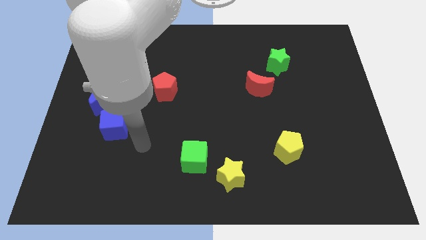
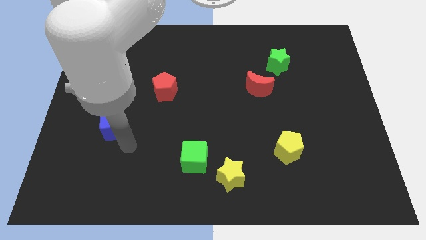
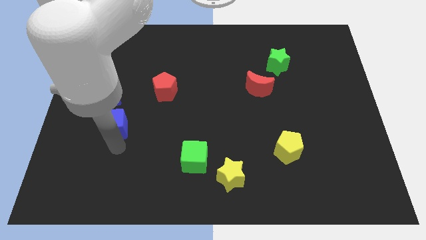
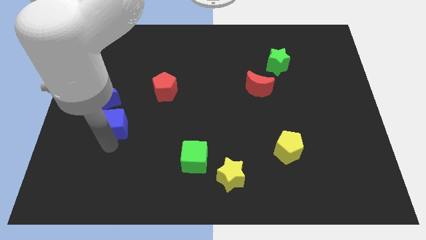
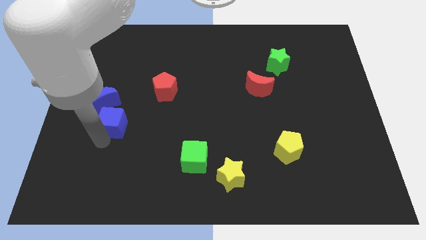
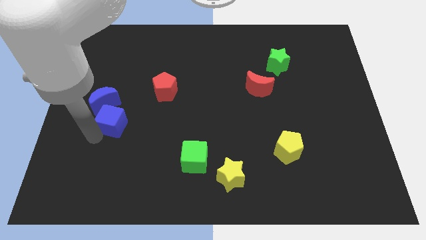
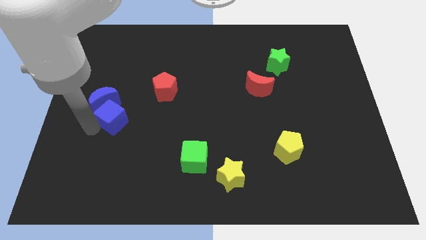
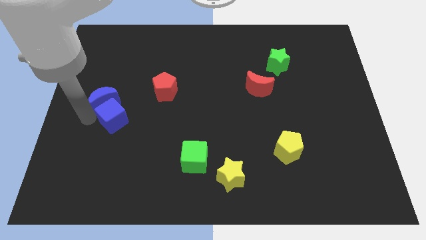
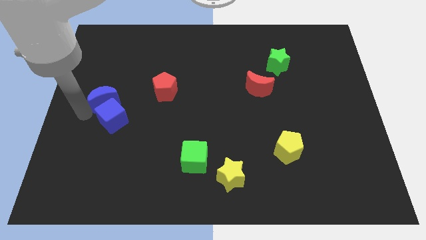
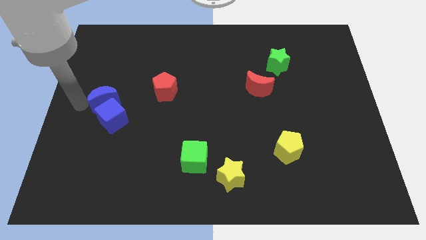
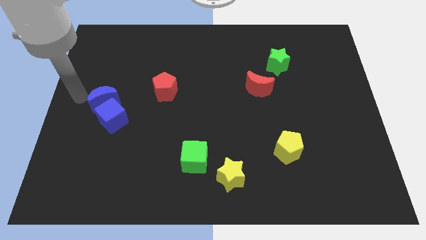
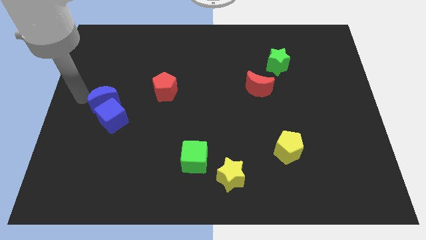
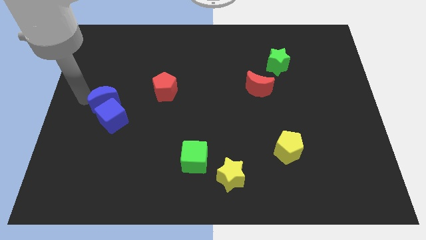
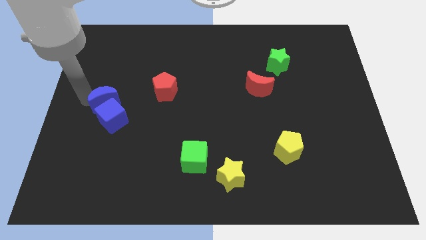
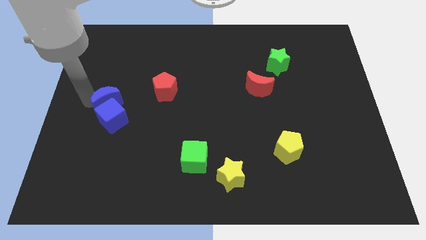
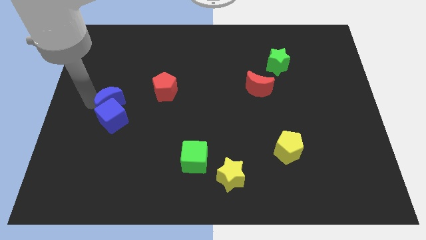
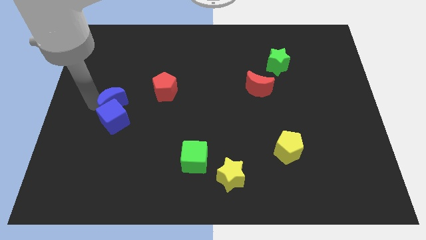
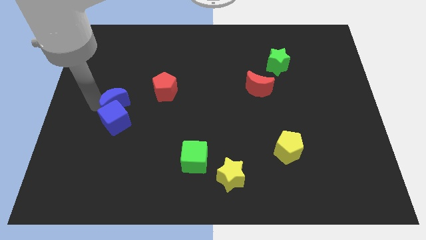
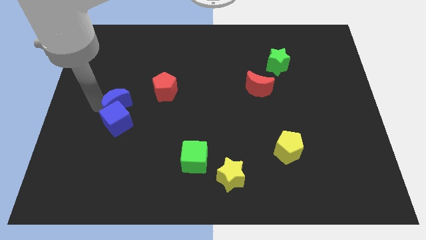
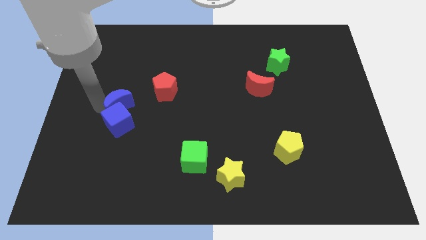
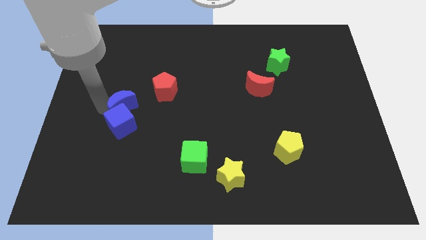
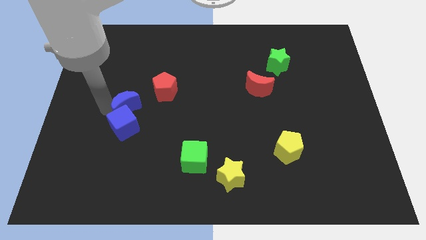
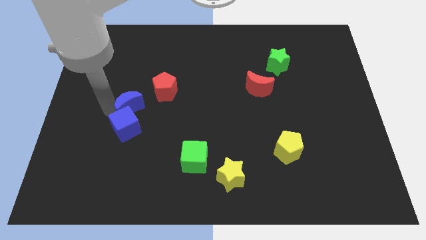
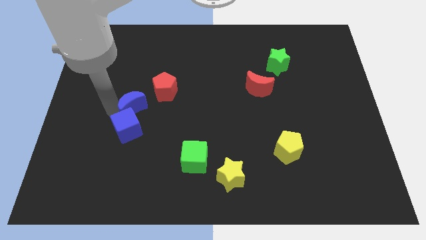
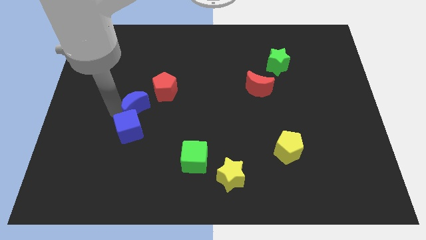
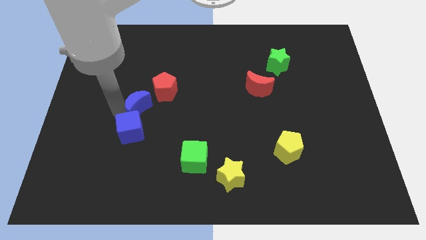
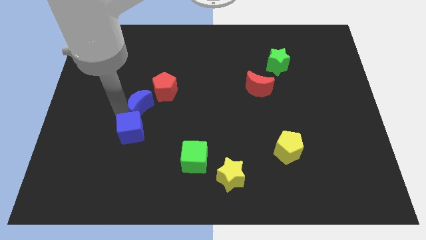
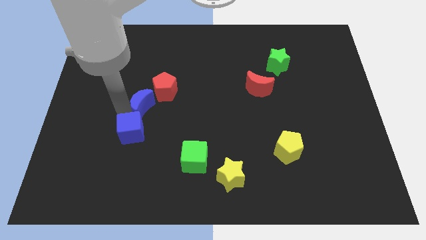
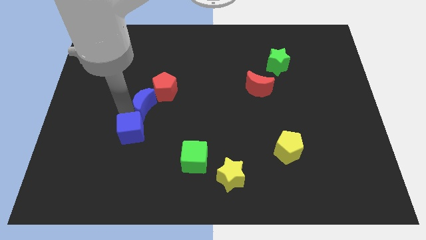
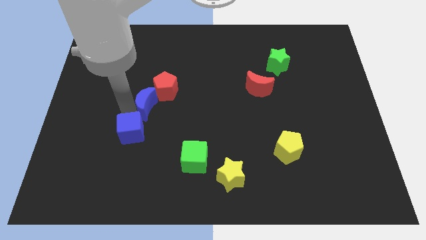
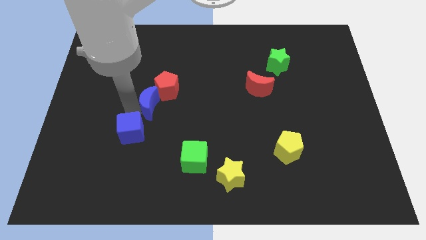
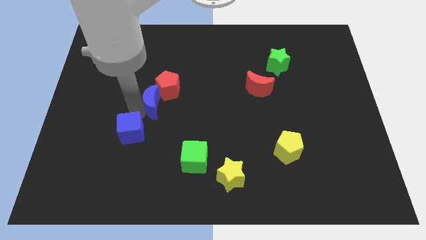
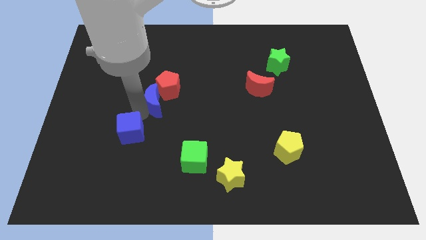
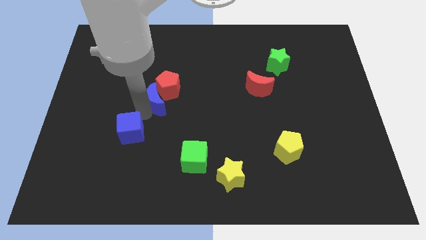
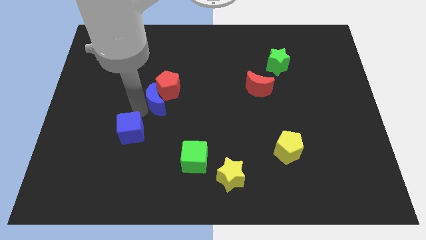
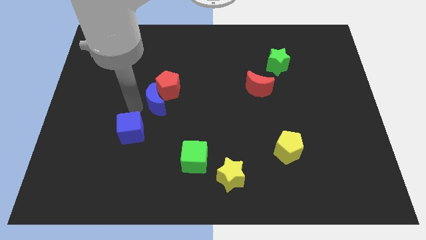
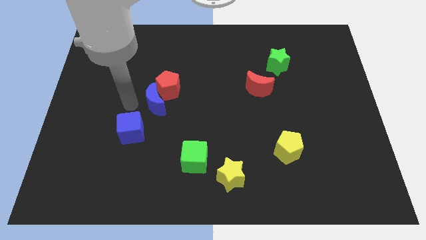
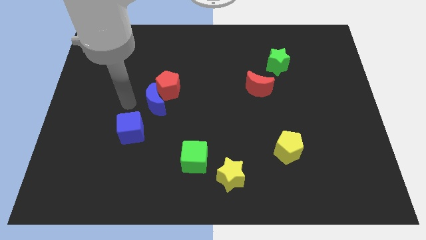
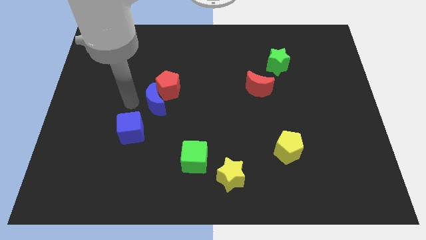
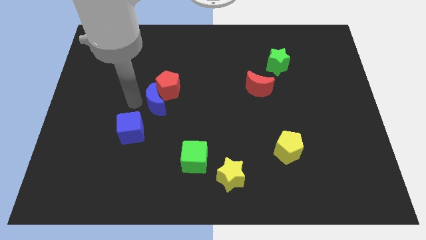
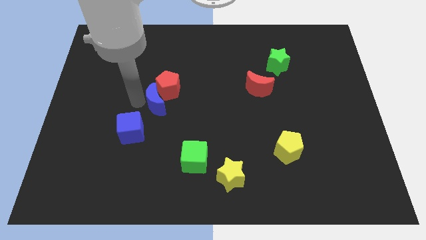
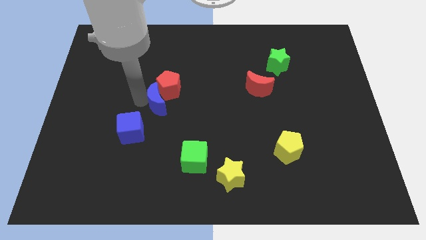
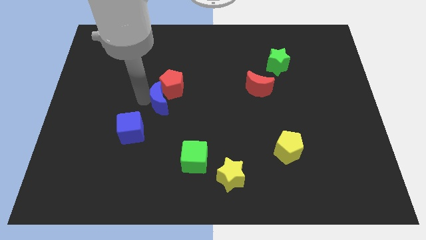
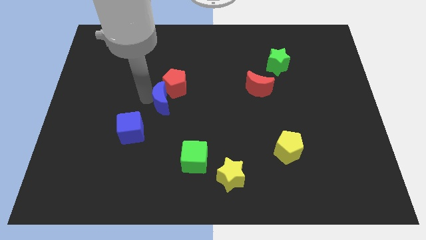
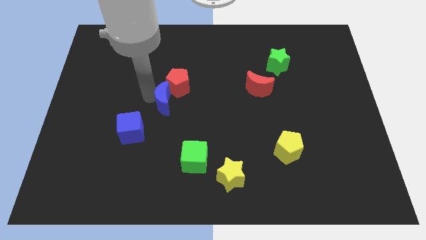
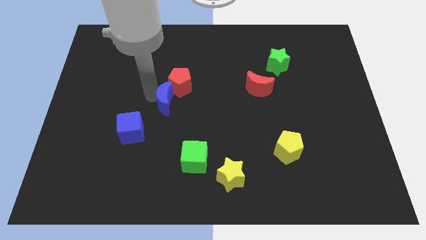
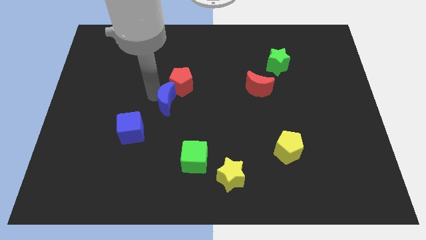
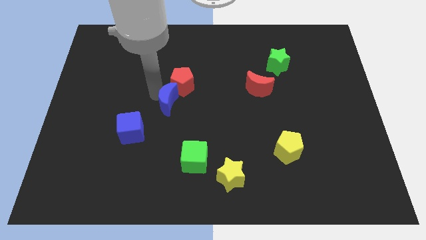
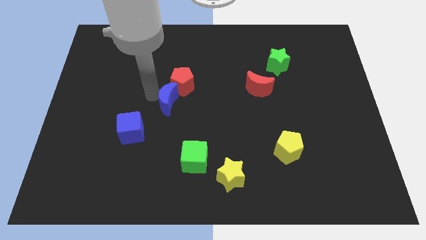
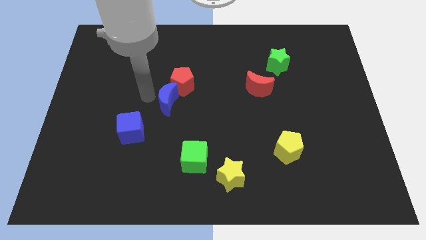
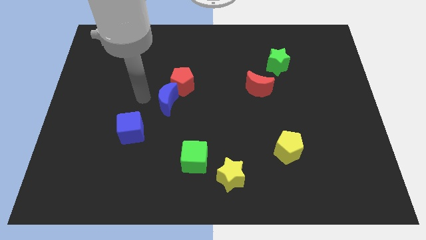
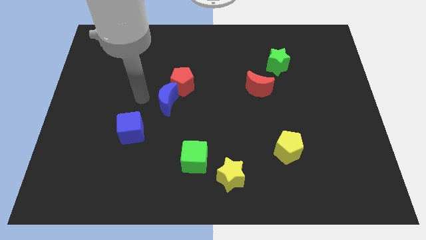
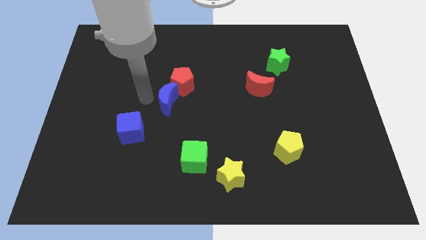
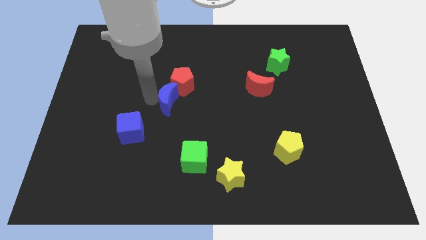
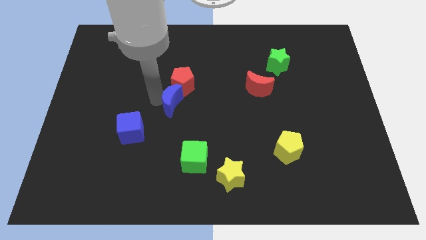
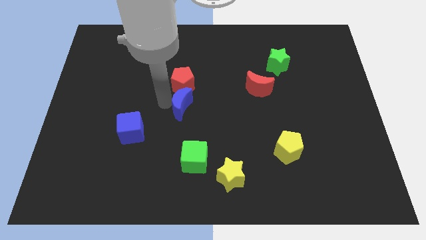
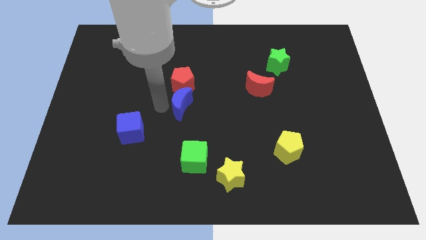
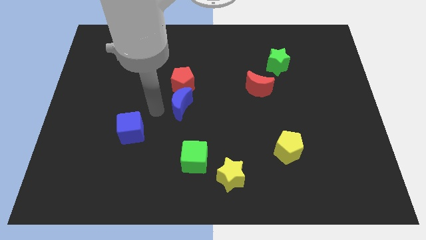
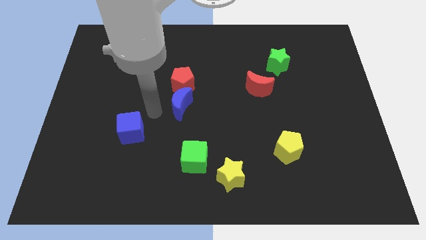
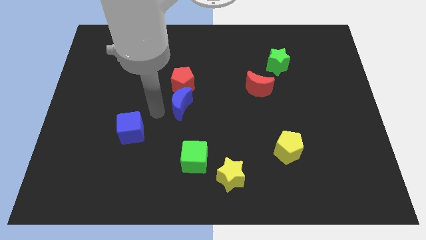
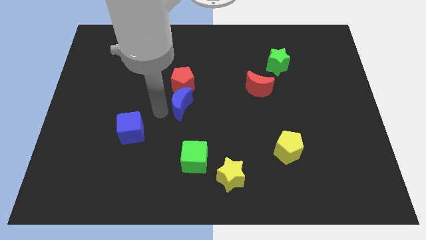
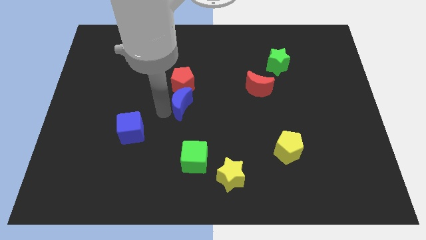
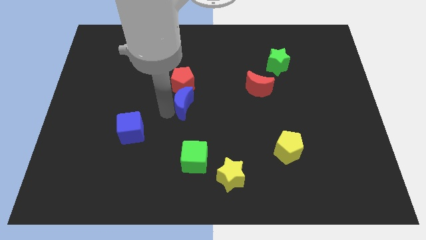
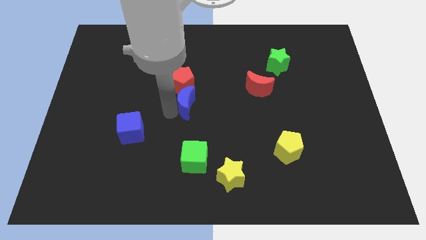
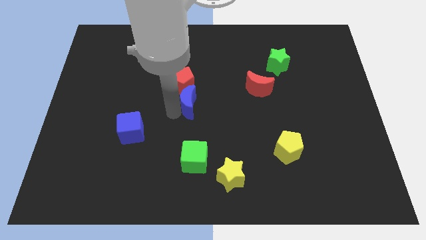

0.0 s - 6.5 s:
move the blue moon to the right

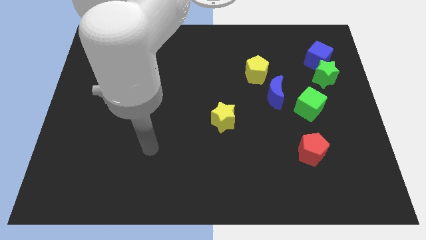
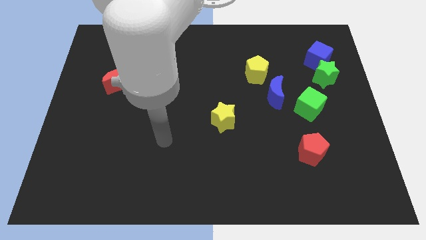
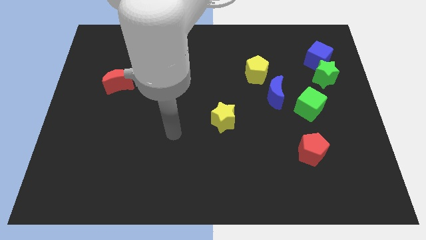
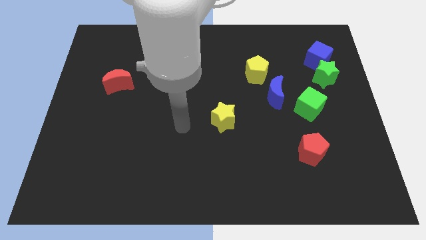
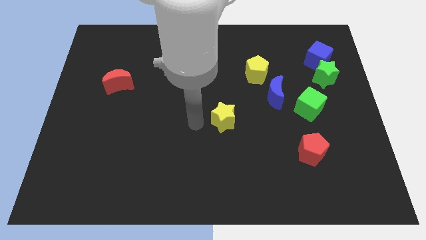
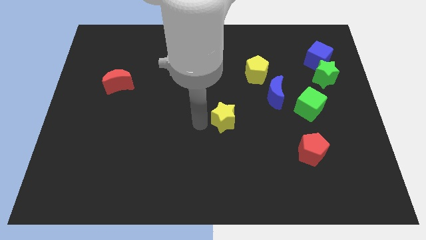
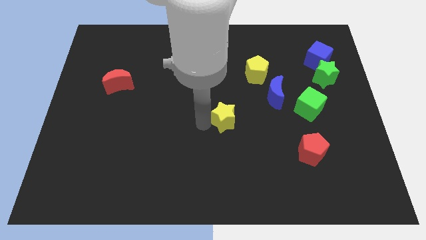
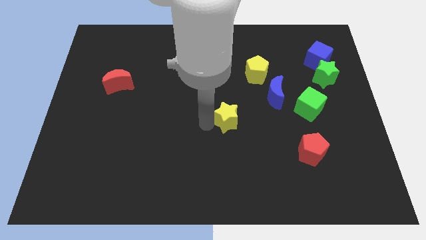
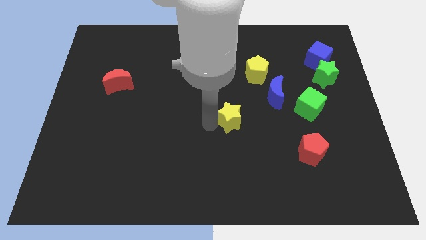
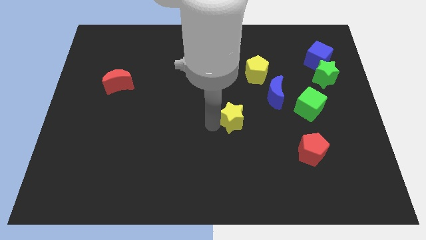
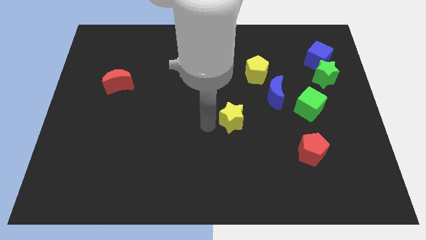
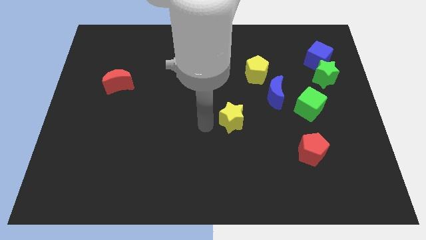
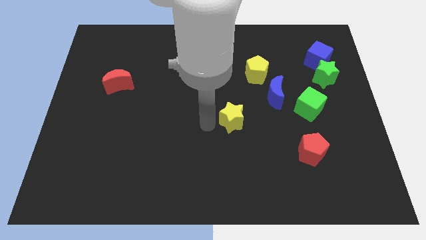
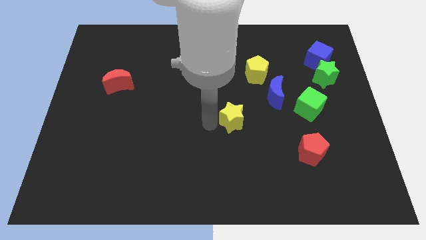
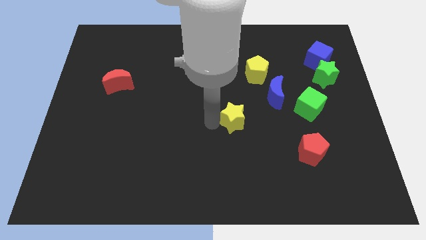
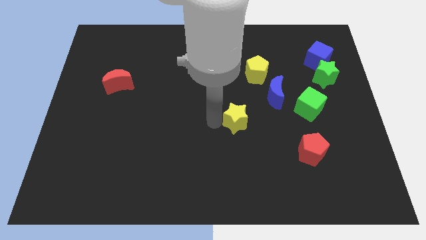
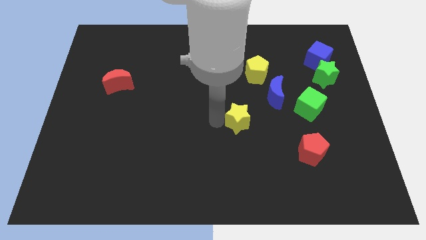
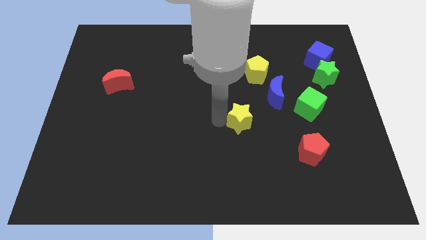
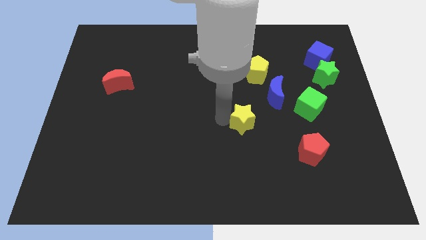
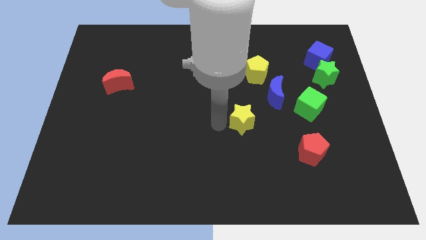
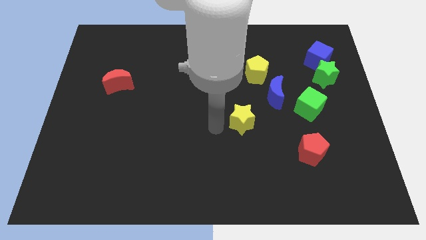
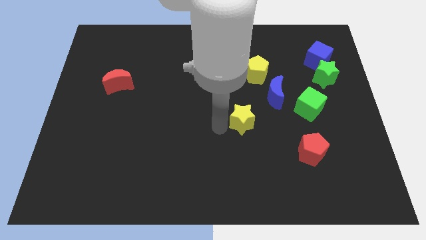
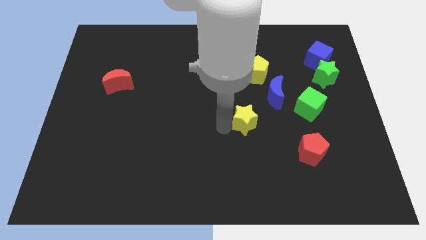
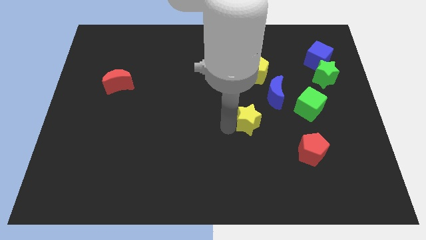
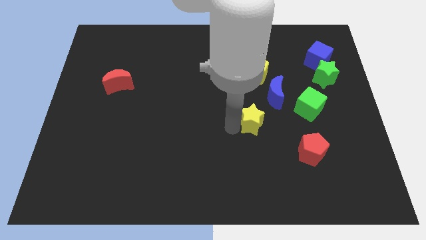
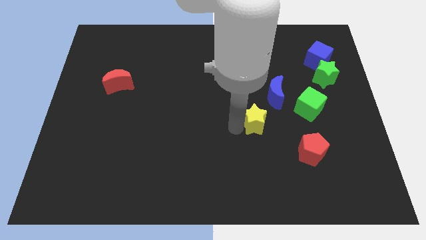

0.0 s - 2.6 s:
move the yellow star right a little bit
